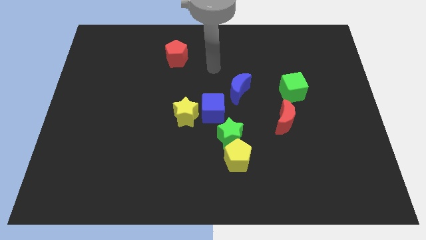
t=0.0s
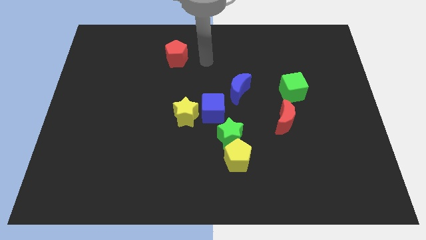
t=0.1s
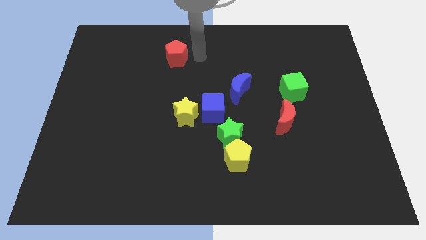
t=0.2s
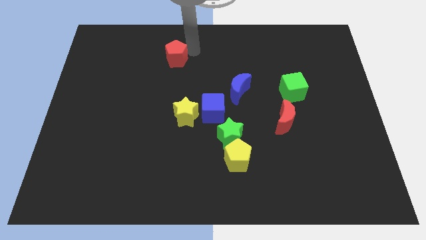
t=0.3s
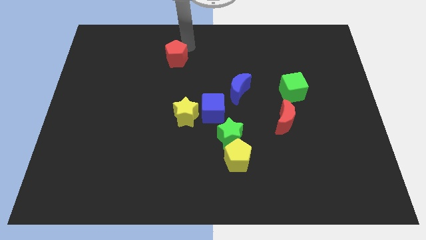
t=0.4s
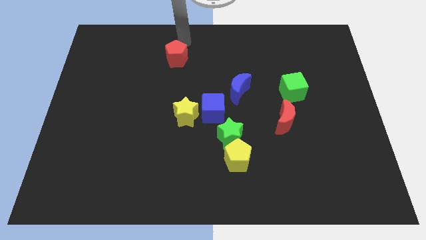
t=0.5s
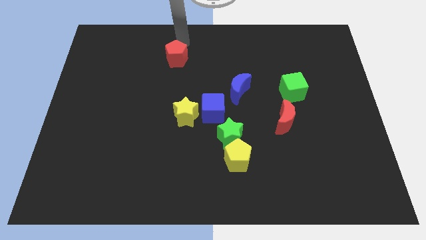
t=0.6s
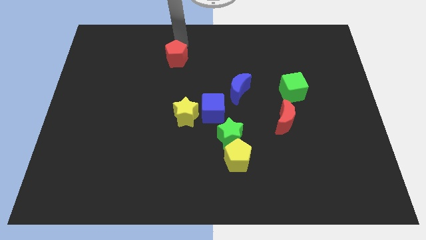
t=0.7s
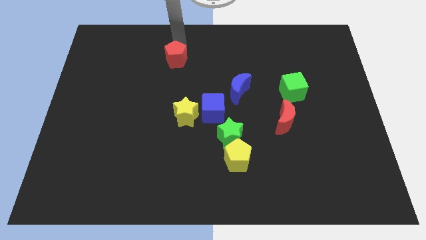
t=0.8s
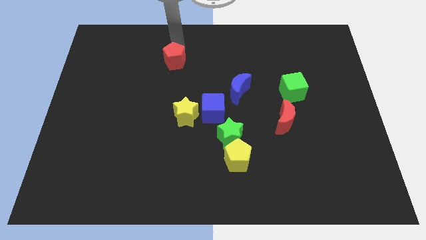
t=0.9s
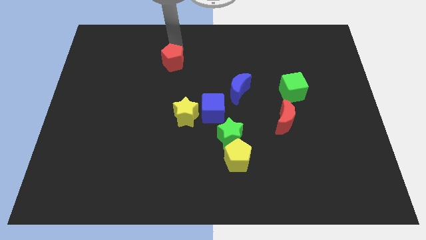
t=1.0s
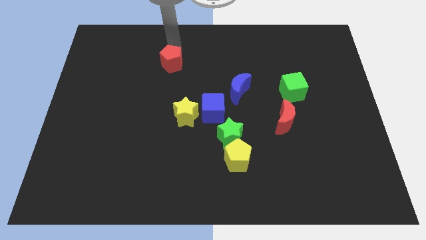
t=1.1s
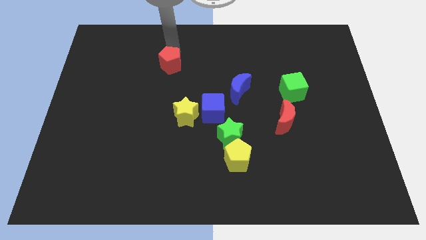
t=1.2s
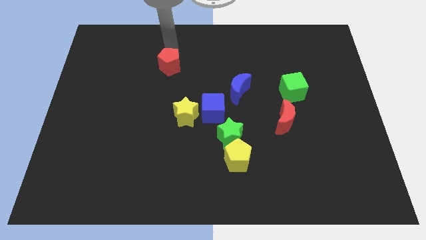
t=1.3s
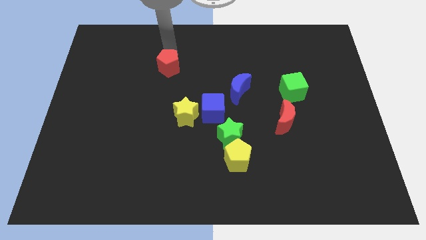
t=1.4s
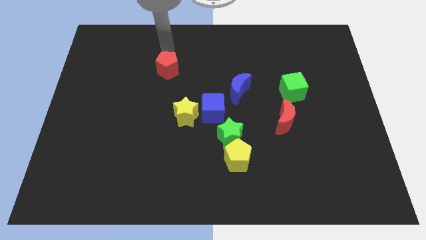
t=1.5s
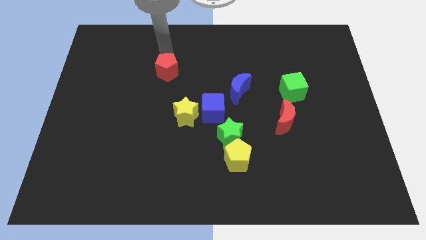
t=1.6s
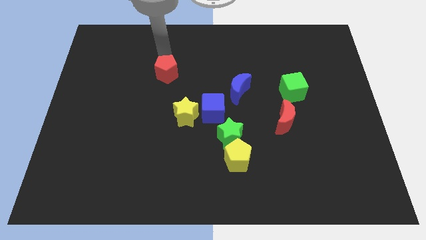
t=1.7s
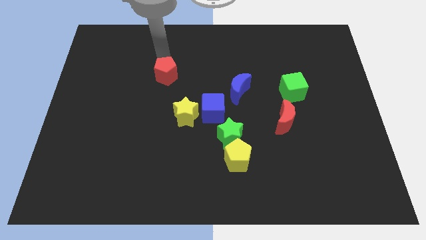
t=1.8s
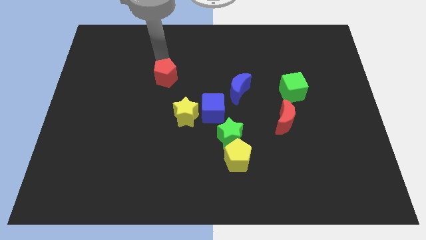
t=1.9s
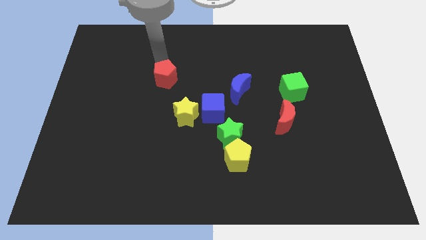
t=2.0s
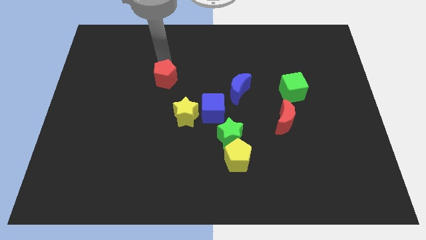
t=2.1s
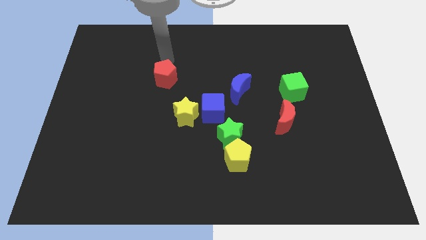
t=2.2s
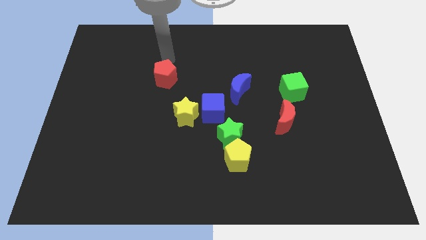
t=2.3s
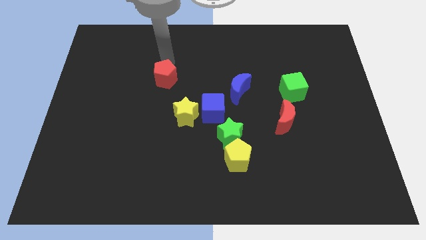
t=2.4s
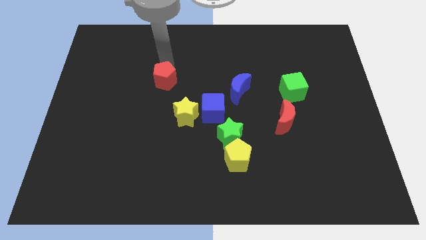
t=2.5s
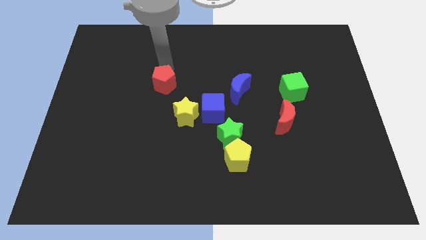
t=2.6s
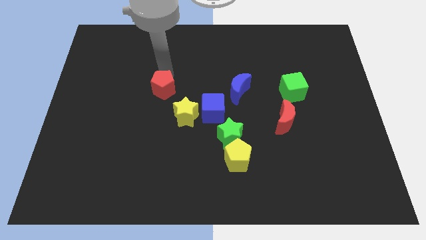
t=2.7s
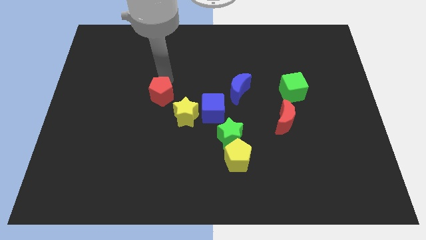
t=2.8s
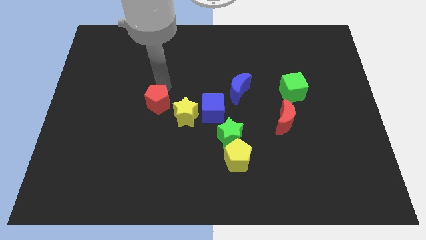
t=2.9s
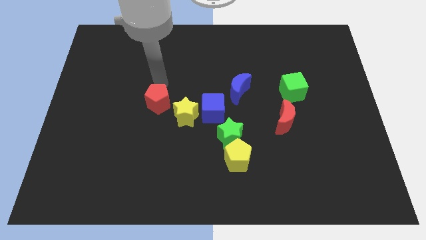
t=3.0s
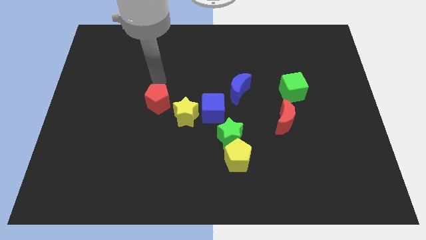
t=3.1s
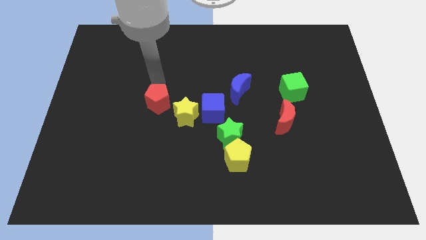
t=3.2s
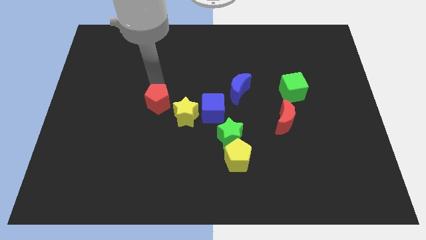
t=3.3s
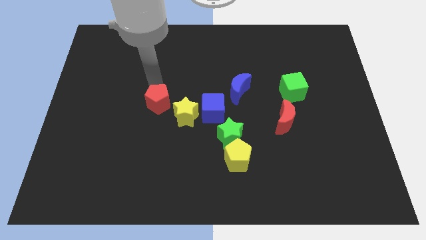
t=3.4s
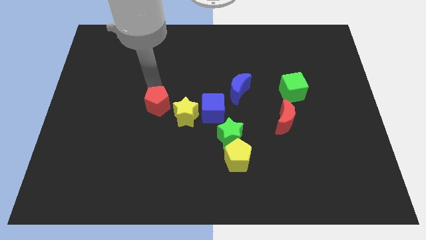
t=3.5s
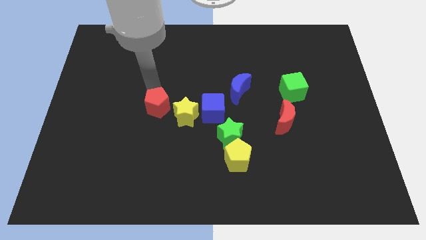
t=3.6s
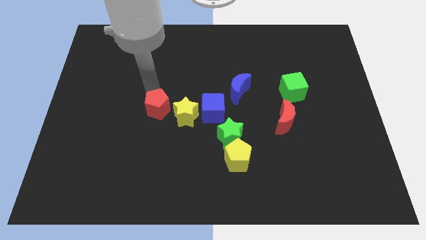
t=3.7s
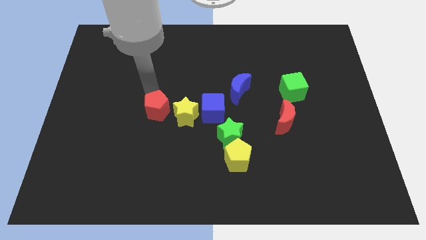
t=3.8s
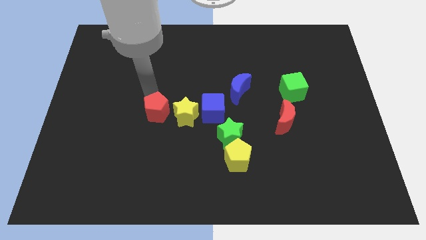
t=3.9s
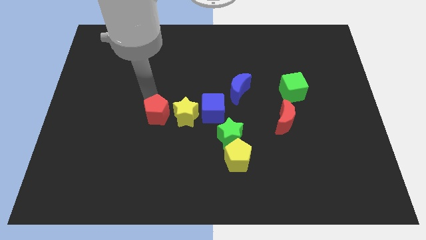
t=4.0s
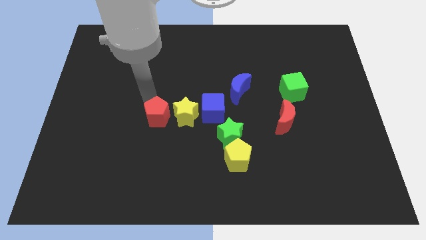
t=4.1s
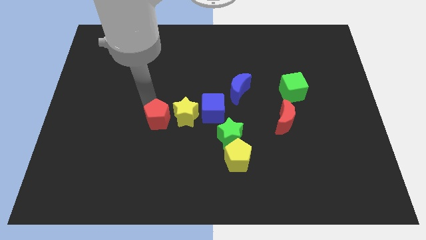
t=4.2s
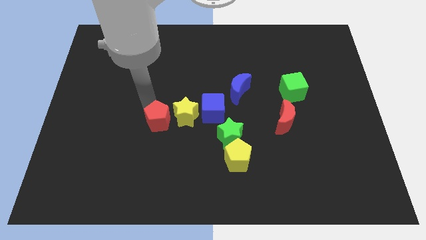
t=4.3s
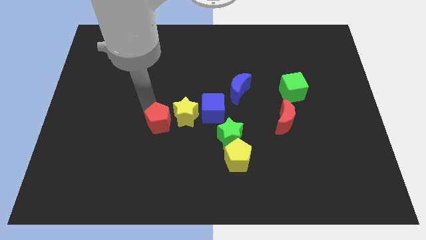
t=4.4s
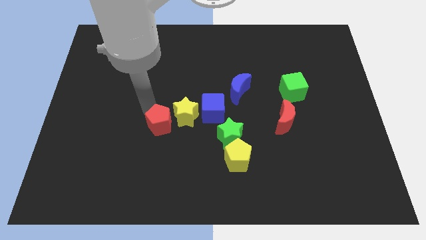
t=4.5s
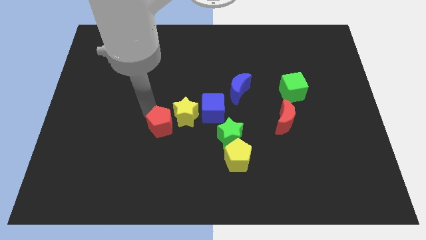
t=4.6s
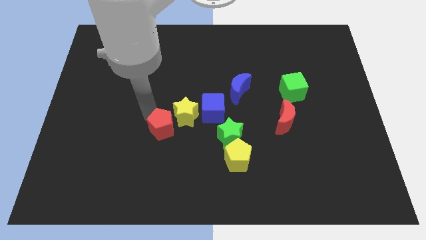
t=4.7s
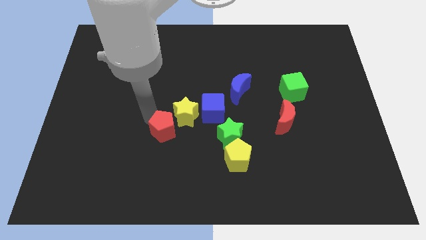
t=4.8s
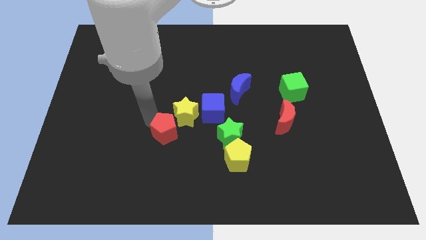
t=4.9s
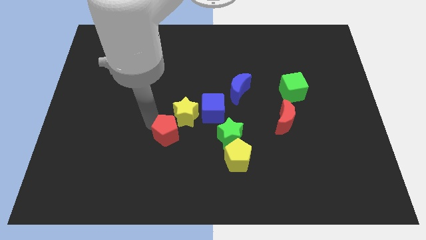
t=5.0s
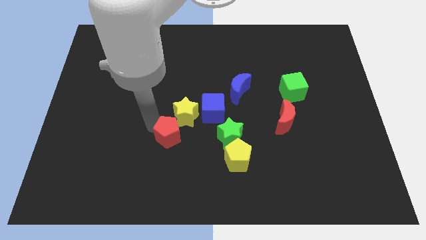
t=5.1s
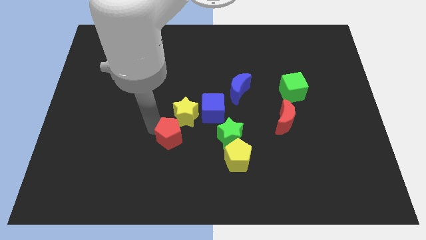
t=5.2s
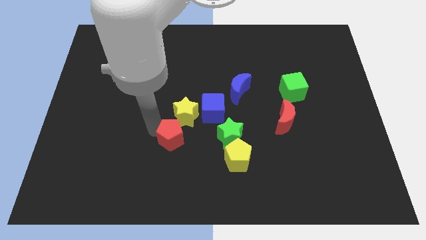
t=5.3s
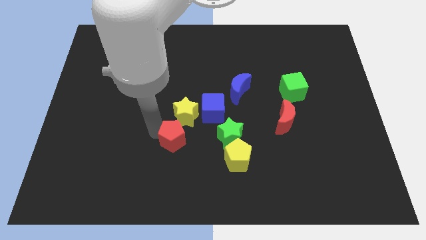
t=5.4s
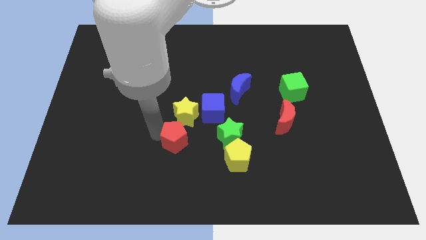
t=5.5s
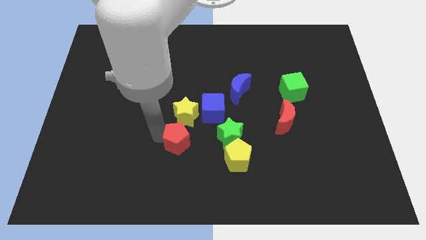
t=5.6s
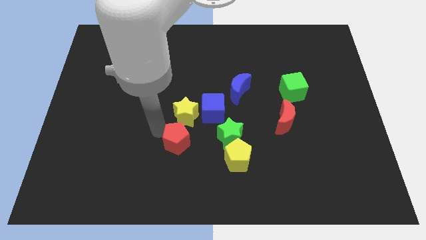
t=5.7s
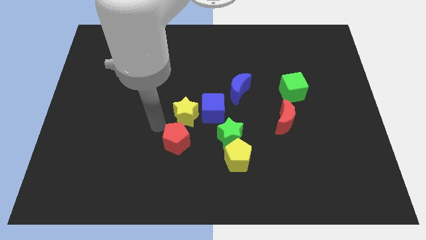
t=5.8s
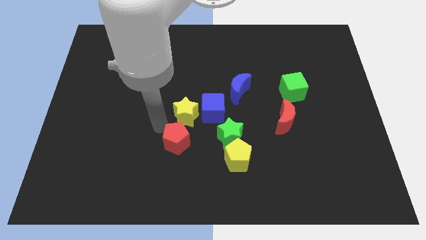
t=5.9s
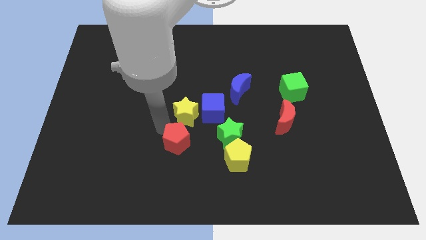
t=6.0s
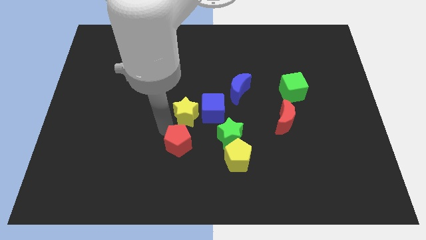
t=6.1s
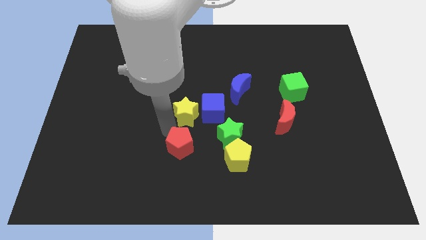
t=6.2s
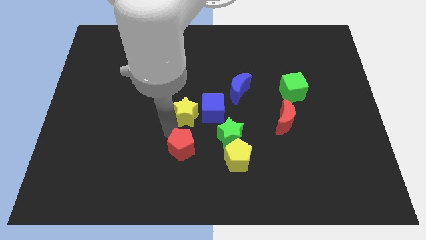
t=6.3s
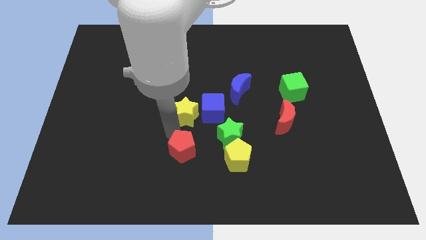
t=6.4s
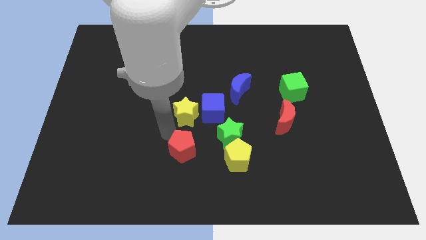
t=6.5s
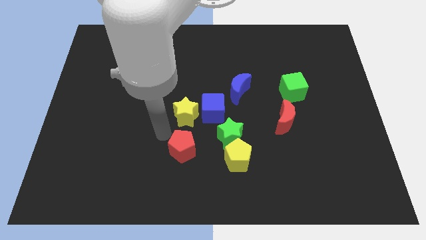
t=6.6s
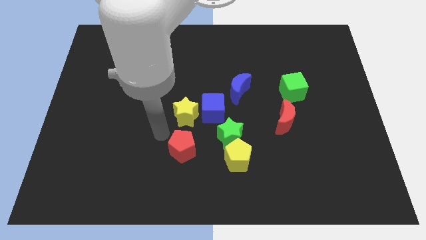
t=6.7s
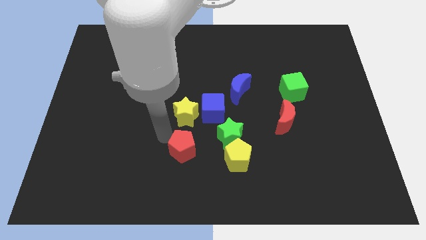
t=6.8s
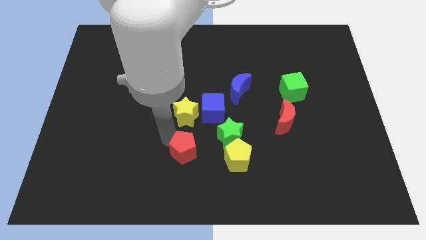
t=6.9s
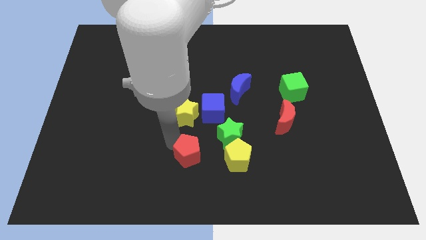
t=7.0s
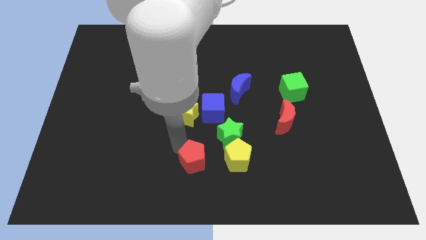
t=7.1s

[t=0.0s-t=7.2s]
slide the red pentagon to the bottom
